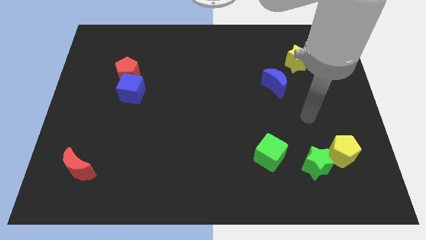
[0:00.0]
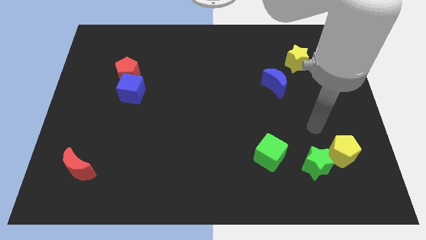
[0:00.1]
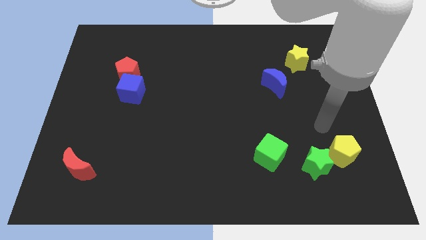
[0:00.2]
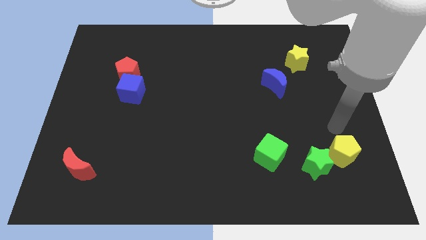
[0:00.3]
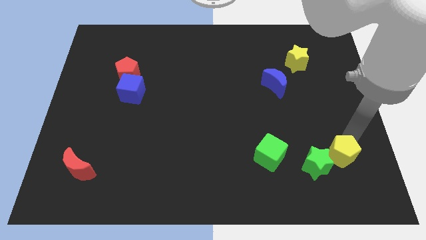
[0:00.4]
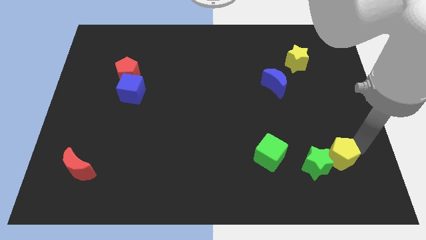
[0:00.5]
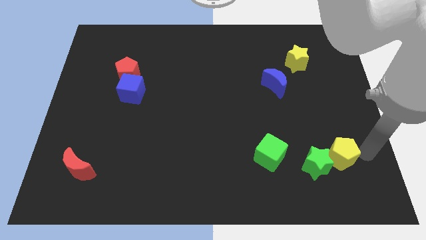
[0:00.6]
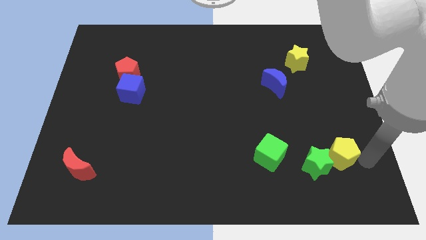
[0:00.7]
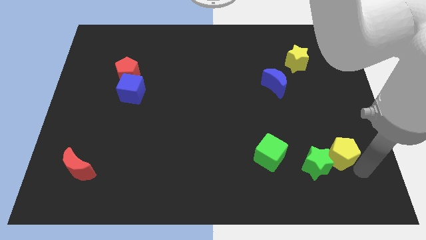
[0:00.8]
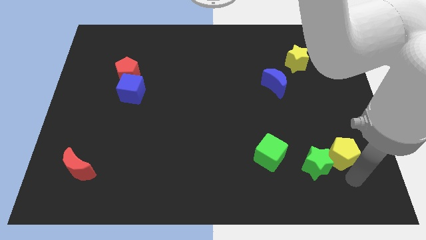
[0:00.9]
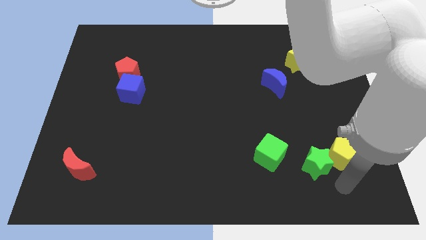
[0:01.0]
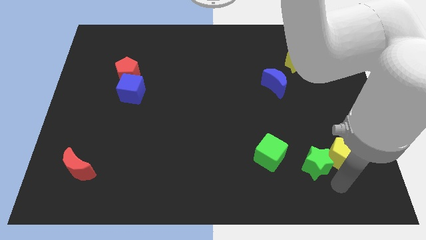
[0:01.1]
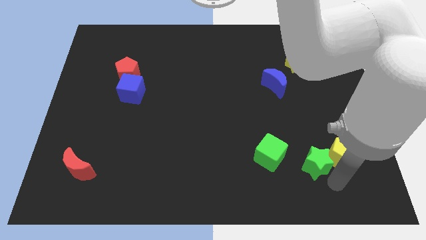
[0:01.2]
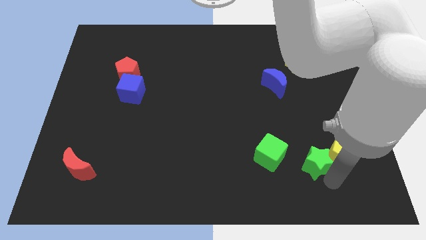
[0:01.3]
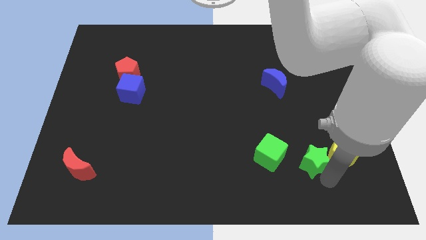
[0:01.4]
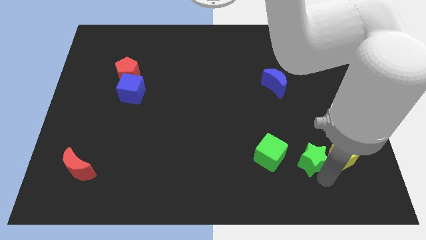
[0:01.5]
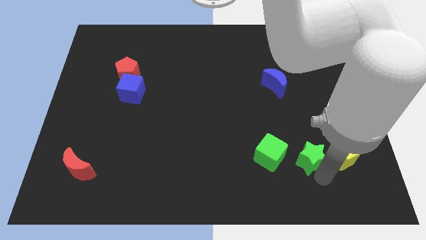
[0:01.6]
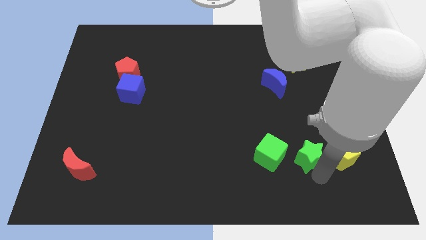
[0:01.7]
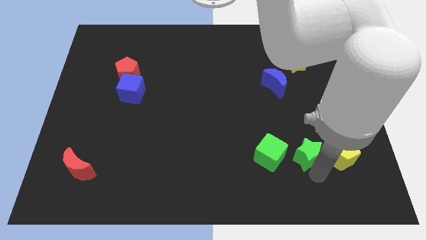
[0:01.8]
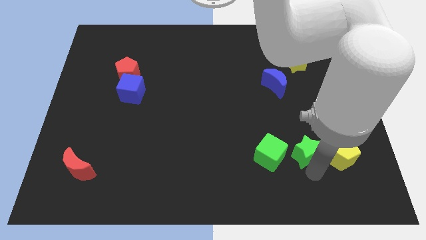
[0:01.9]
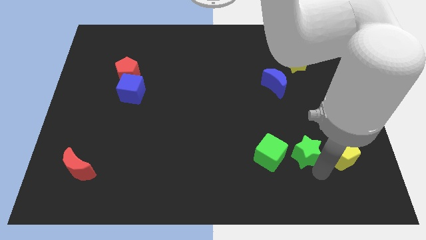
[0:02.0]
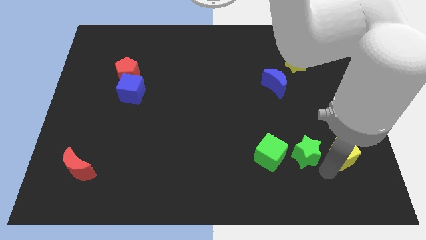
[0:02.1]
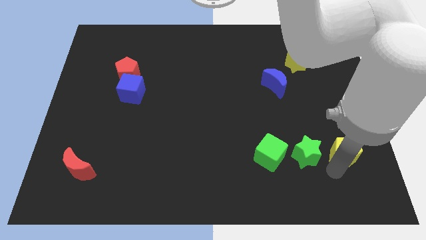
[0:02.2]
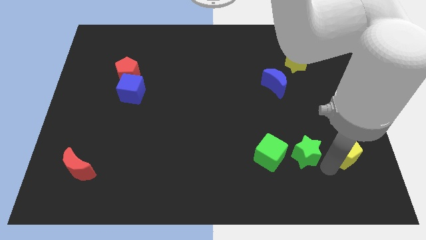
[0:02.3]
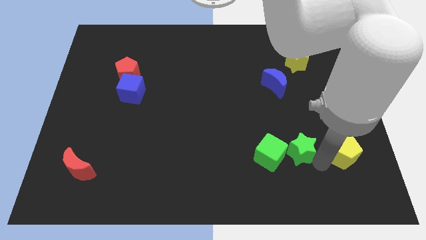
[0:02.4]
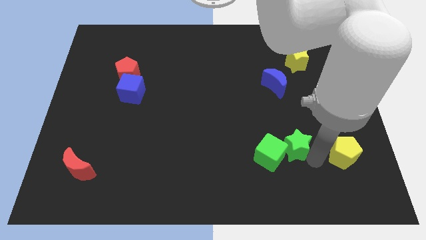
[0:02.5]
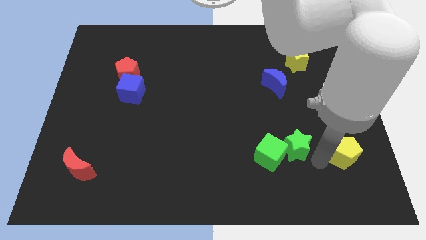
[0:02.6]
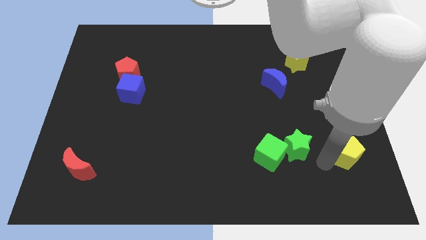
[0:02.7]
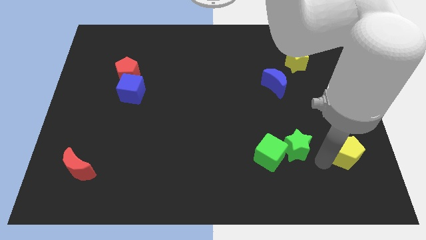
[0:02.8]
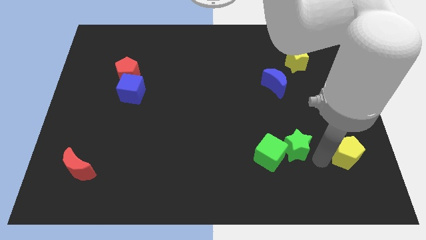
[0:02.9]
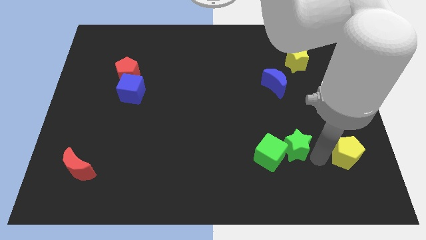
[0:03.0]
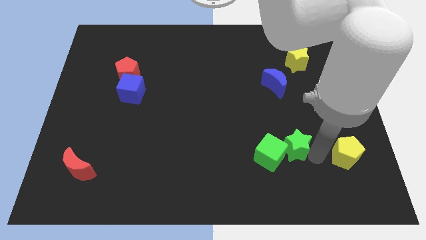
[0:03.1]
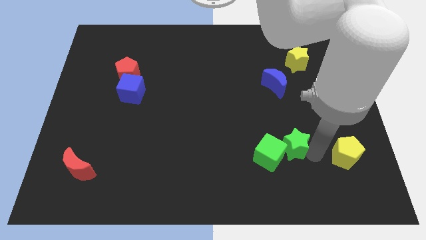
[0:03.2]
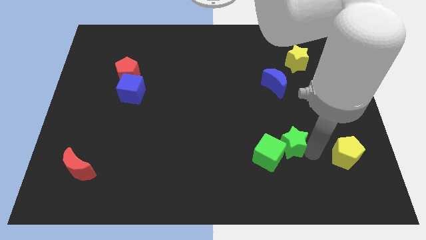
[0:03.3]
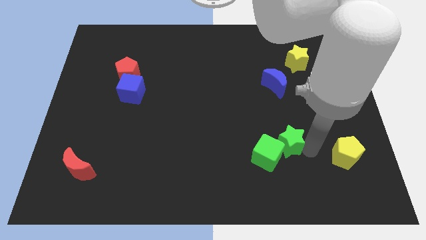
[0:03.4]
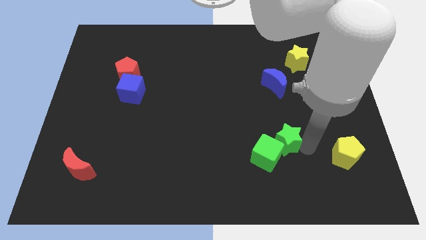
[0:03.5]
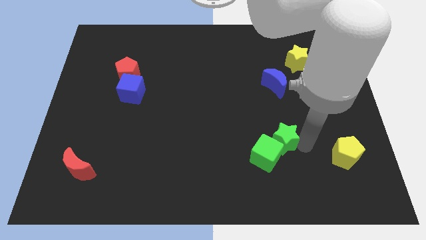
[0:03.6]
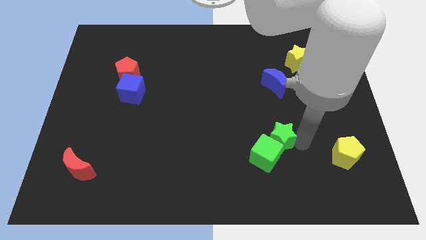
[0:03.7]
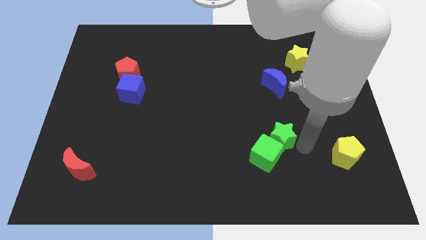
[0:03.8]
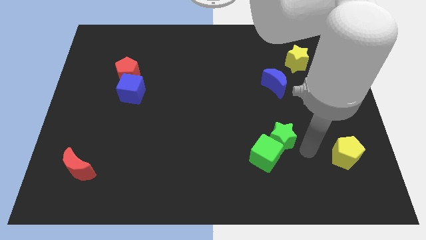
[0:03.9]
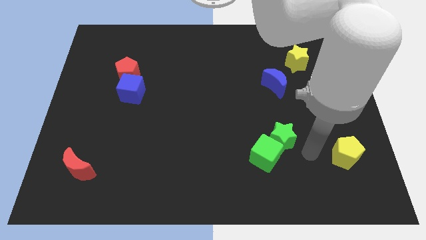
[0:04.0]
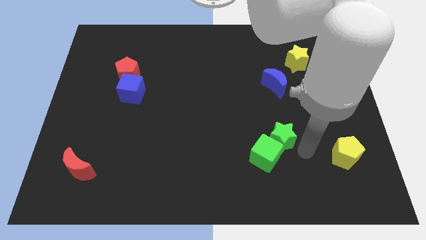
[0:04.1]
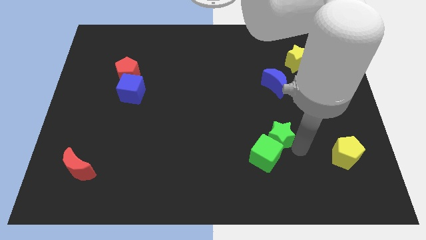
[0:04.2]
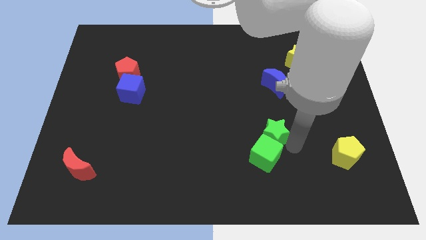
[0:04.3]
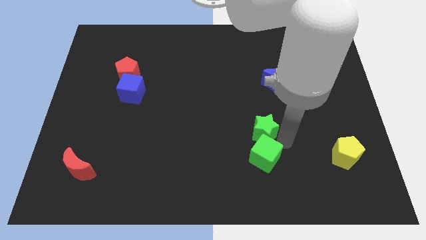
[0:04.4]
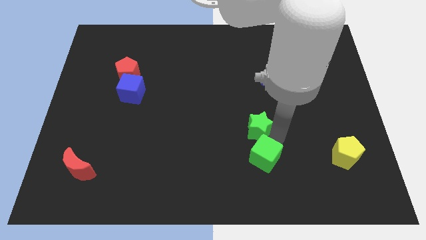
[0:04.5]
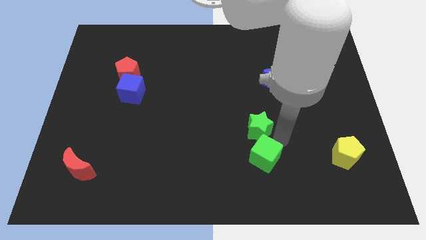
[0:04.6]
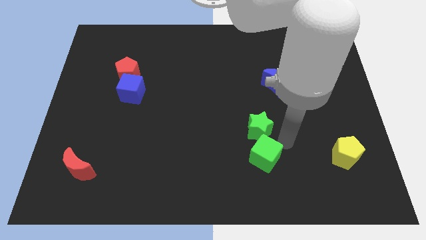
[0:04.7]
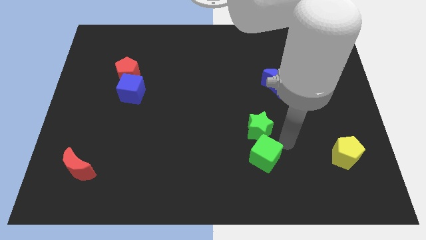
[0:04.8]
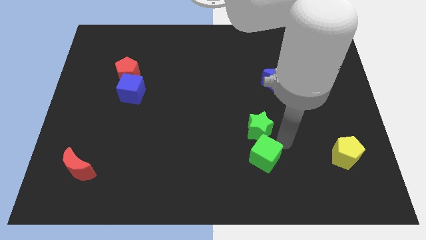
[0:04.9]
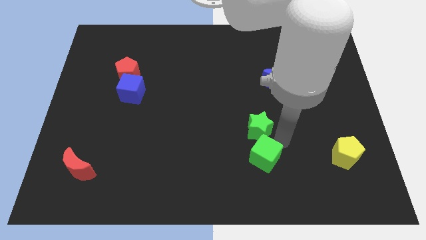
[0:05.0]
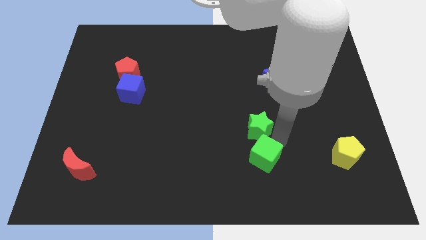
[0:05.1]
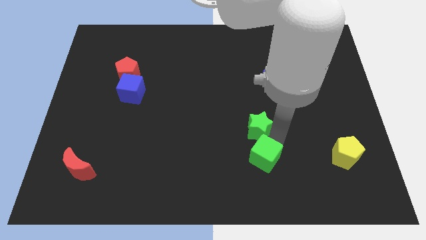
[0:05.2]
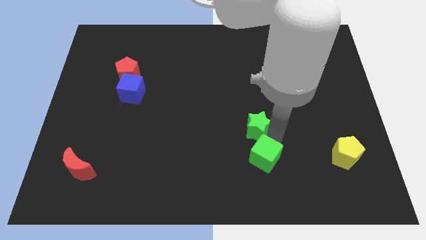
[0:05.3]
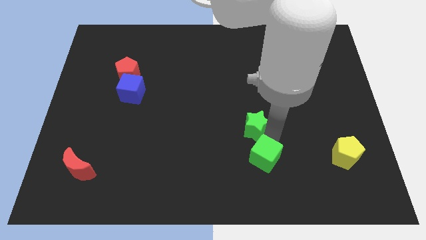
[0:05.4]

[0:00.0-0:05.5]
move the green star to the center
